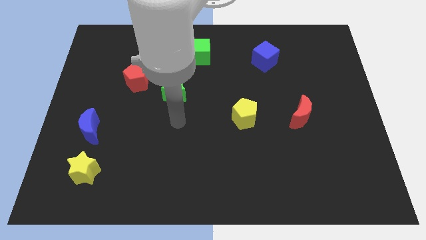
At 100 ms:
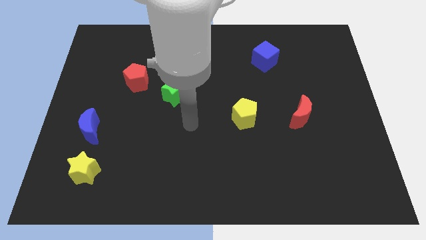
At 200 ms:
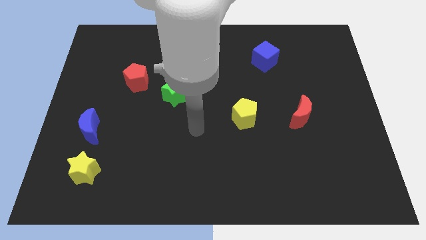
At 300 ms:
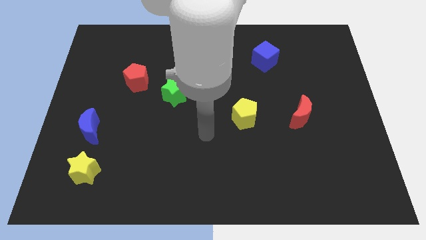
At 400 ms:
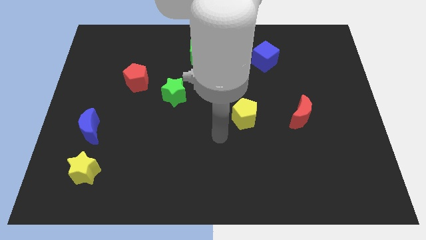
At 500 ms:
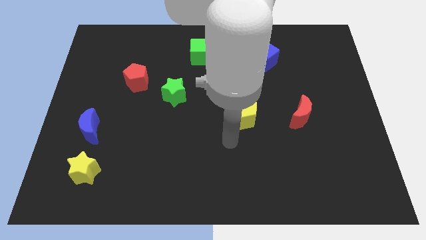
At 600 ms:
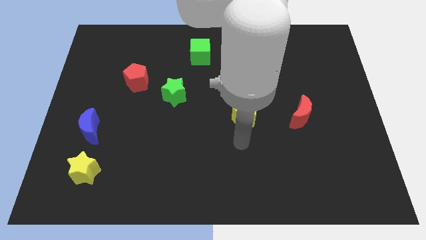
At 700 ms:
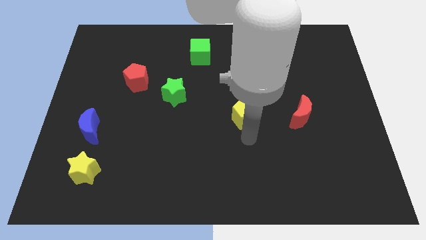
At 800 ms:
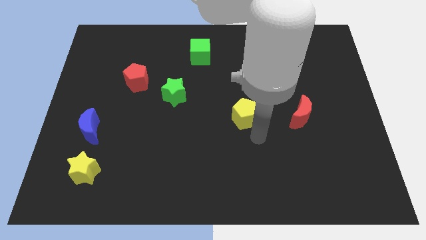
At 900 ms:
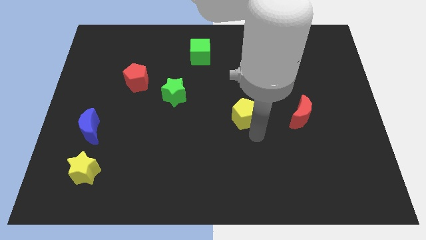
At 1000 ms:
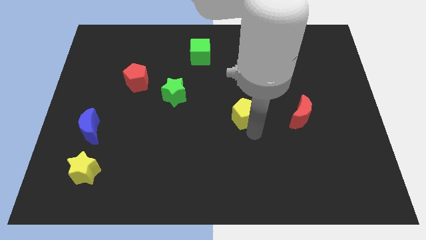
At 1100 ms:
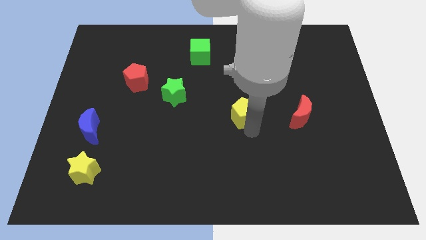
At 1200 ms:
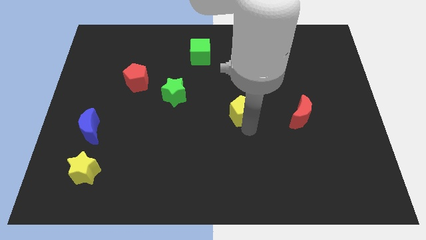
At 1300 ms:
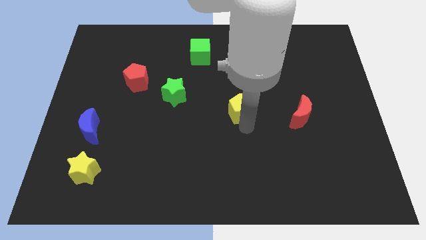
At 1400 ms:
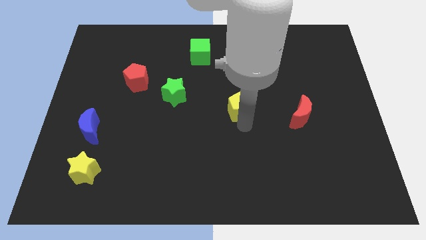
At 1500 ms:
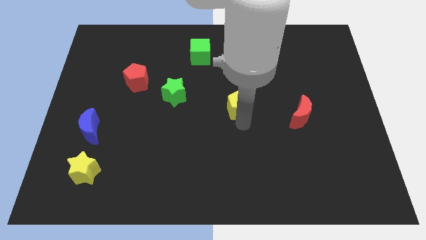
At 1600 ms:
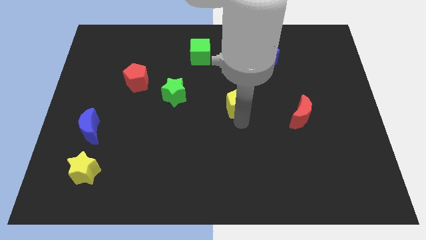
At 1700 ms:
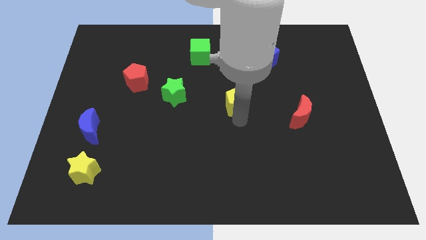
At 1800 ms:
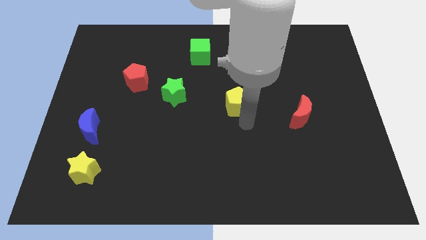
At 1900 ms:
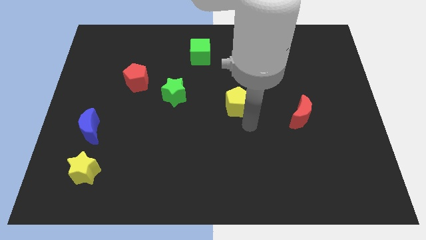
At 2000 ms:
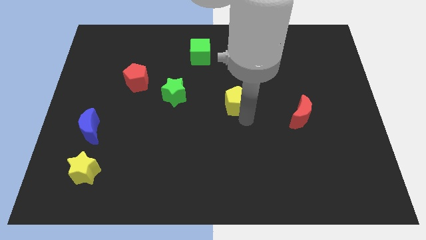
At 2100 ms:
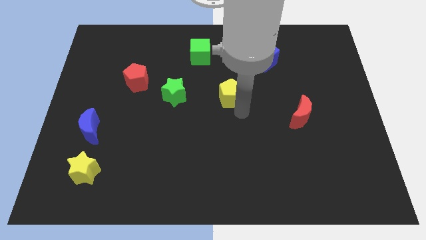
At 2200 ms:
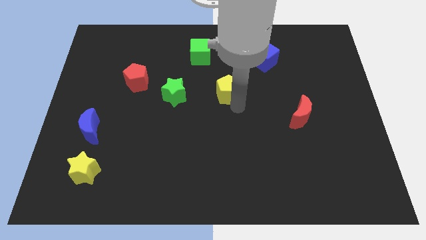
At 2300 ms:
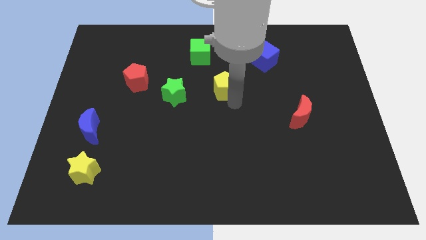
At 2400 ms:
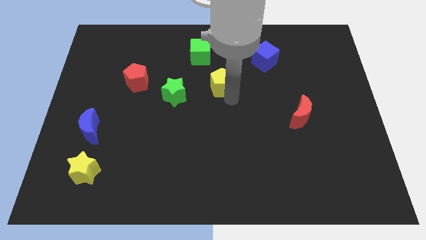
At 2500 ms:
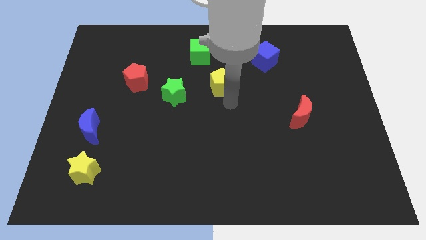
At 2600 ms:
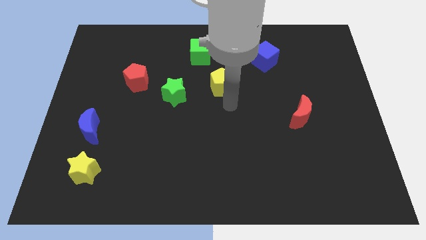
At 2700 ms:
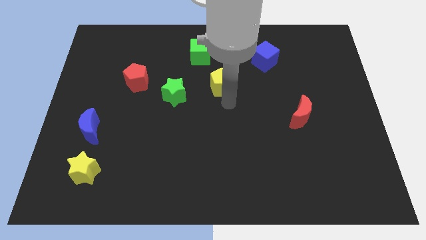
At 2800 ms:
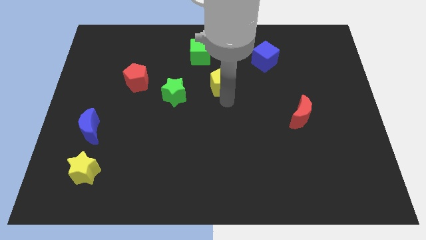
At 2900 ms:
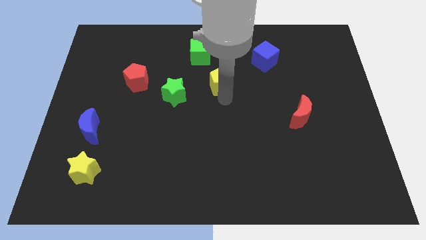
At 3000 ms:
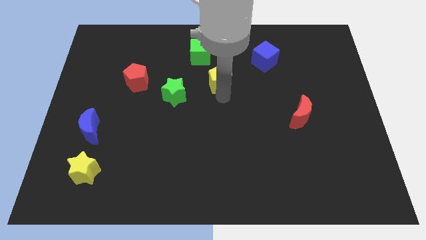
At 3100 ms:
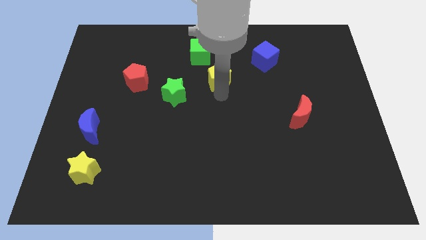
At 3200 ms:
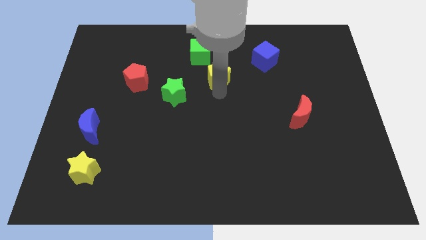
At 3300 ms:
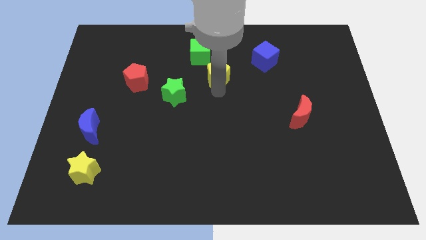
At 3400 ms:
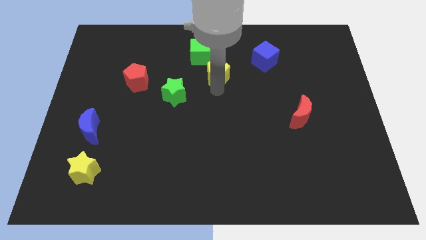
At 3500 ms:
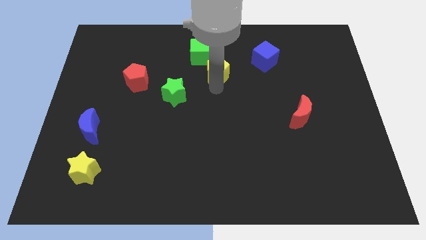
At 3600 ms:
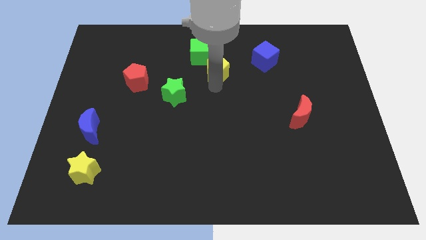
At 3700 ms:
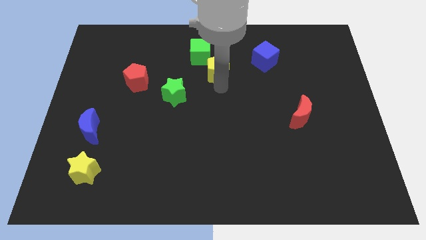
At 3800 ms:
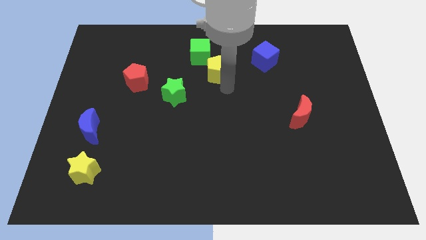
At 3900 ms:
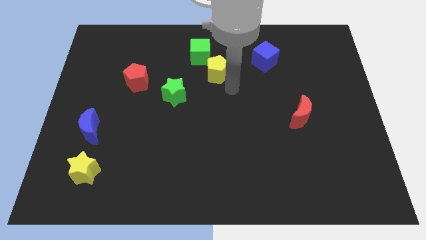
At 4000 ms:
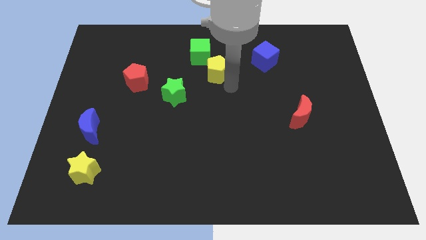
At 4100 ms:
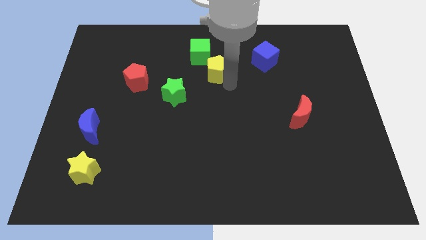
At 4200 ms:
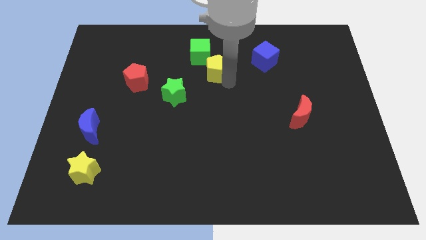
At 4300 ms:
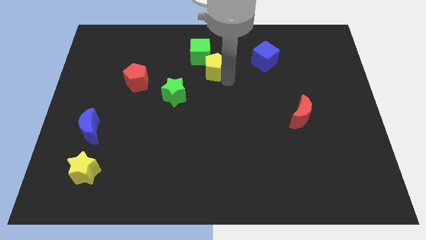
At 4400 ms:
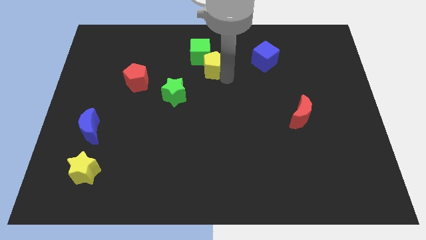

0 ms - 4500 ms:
move the yellow pentagon next to the green cube

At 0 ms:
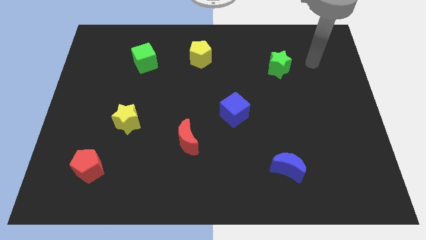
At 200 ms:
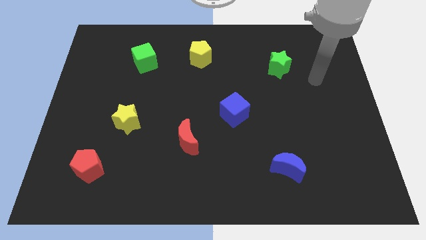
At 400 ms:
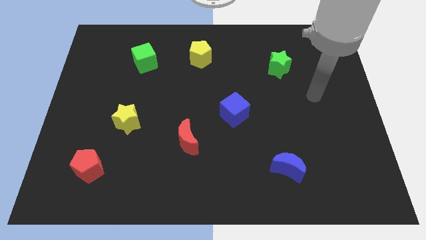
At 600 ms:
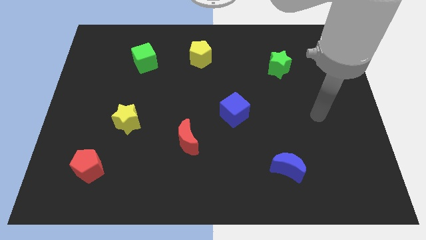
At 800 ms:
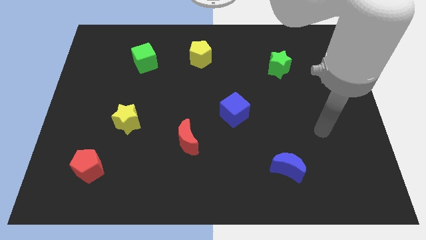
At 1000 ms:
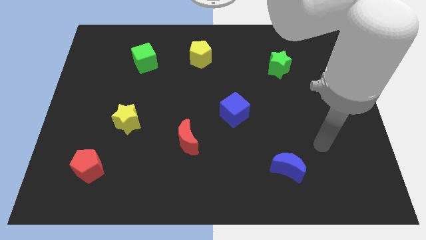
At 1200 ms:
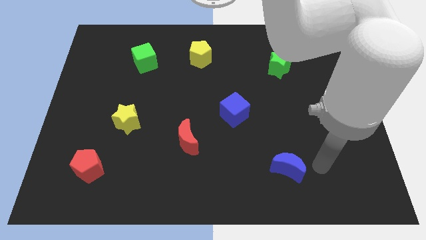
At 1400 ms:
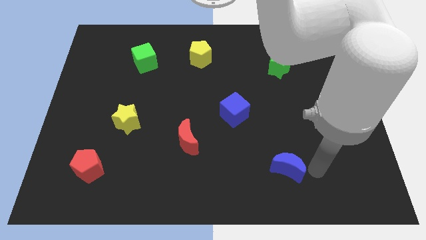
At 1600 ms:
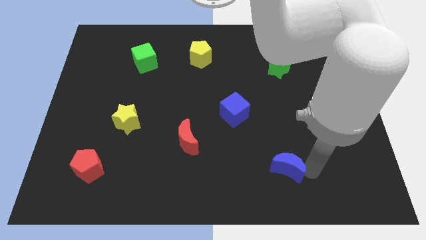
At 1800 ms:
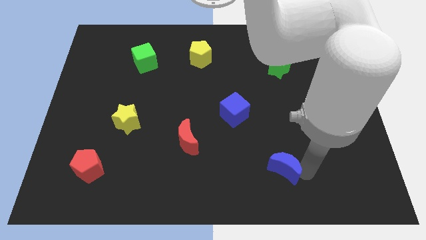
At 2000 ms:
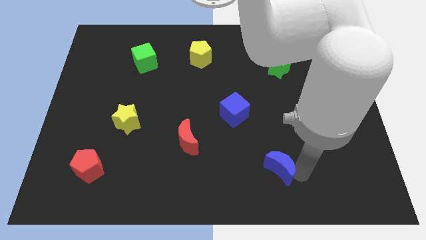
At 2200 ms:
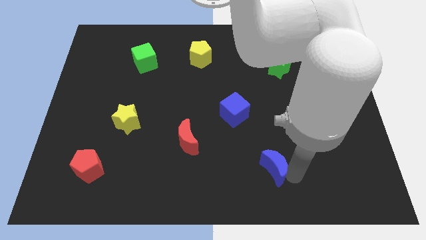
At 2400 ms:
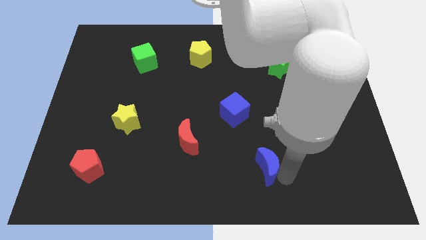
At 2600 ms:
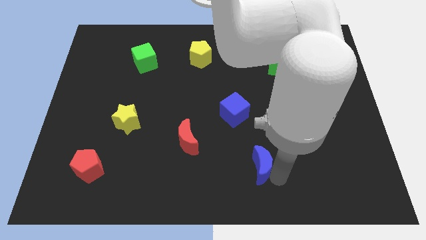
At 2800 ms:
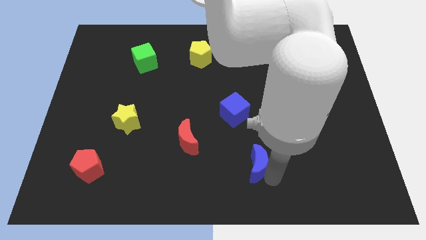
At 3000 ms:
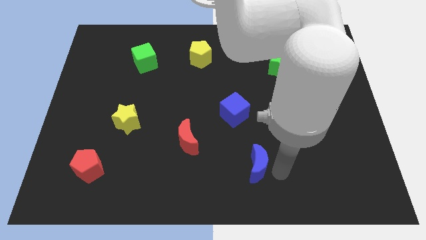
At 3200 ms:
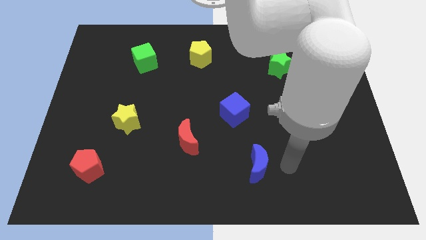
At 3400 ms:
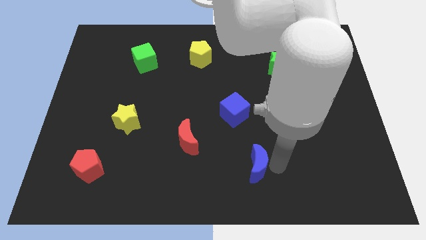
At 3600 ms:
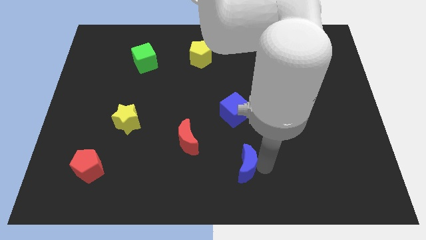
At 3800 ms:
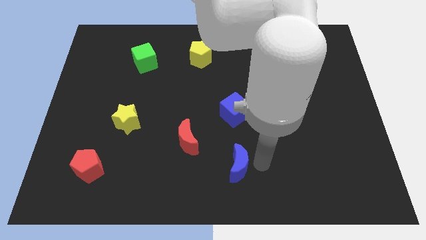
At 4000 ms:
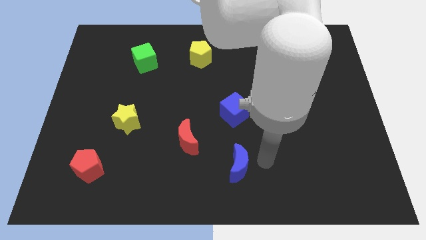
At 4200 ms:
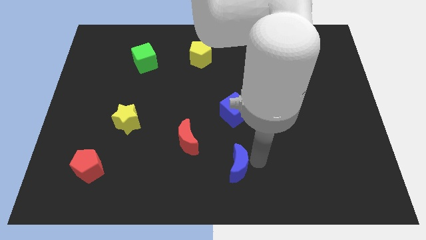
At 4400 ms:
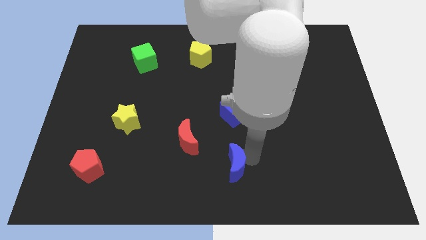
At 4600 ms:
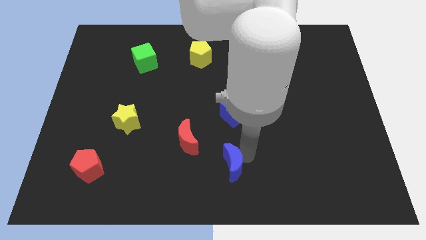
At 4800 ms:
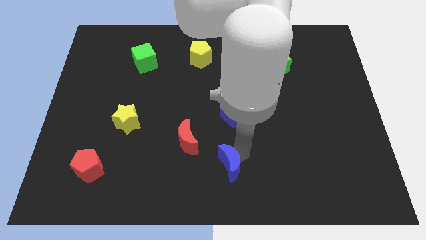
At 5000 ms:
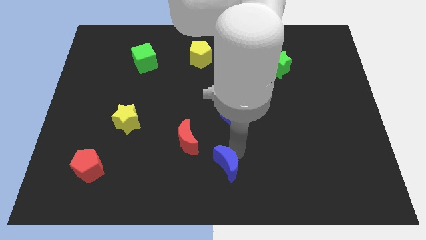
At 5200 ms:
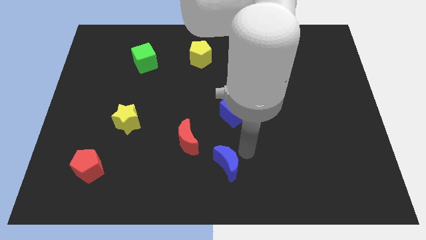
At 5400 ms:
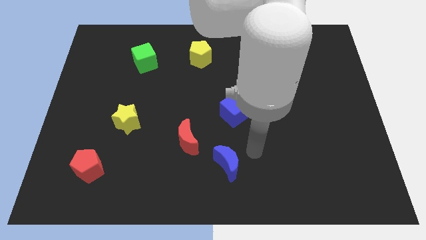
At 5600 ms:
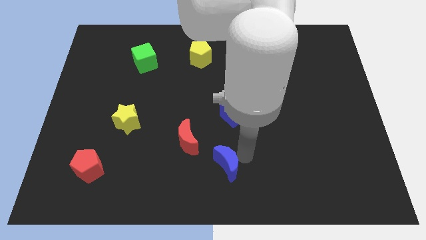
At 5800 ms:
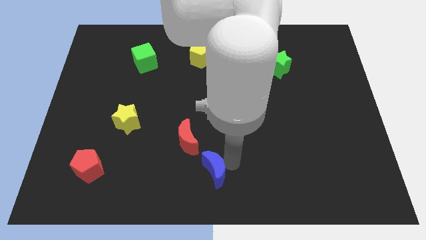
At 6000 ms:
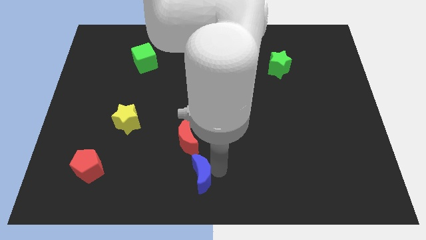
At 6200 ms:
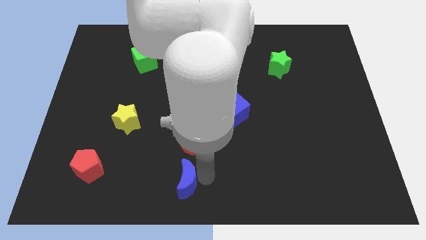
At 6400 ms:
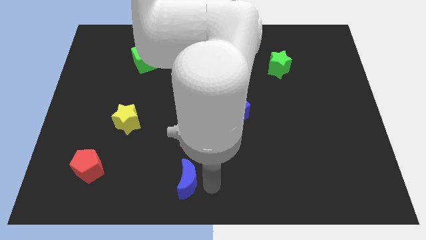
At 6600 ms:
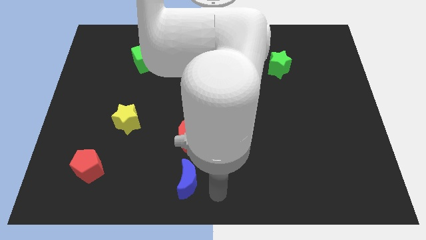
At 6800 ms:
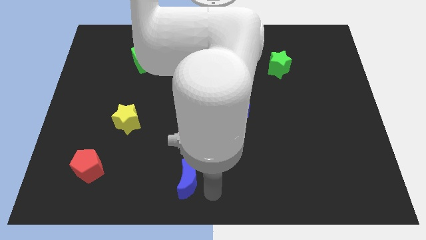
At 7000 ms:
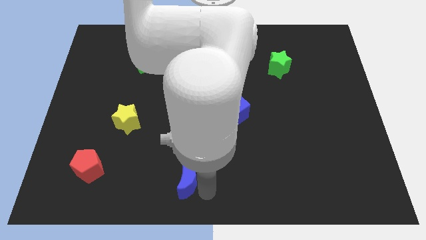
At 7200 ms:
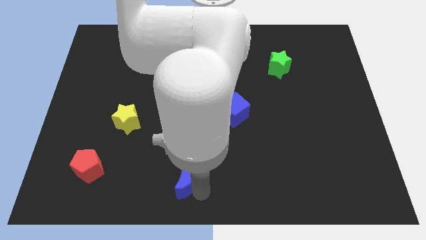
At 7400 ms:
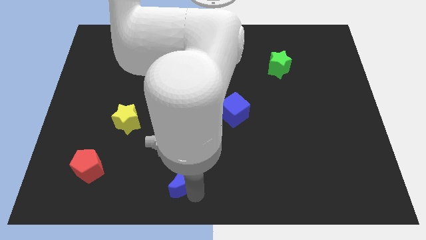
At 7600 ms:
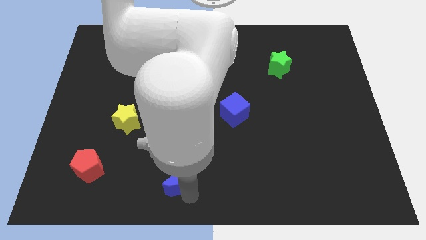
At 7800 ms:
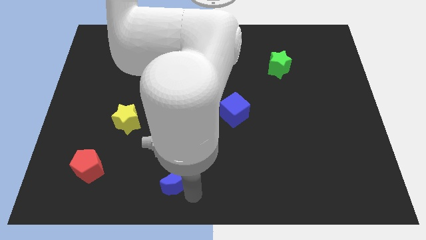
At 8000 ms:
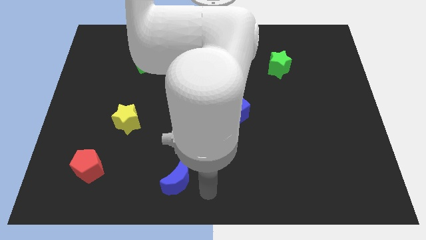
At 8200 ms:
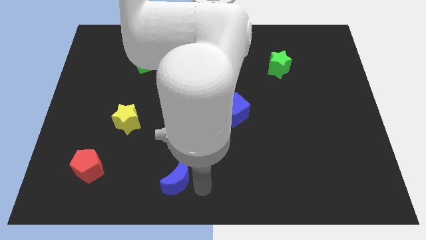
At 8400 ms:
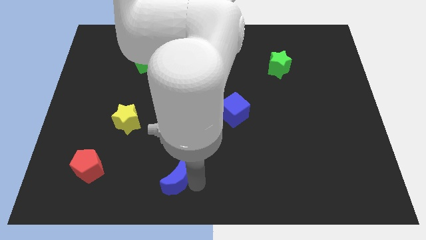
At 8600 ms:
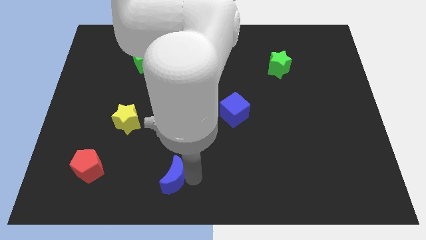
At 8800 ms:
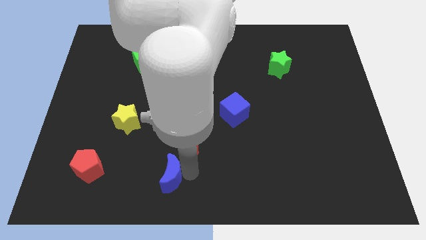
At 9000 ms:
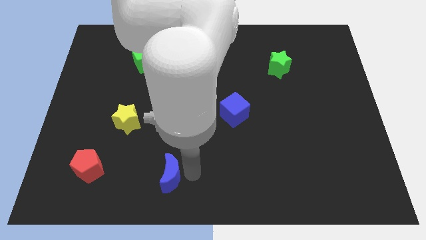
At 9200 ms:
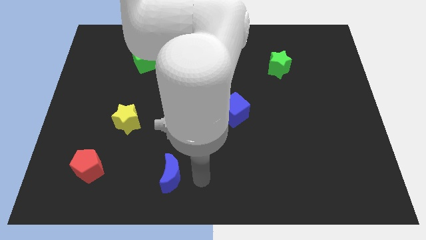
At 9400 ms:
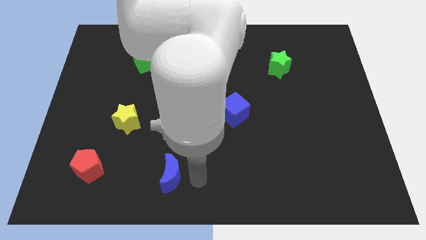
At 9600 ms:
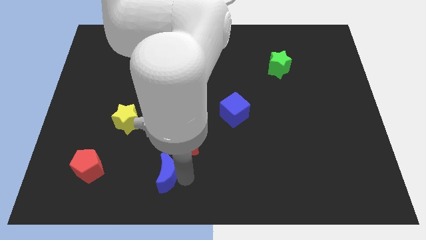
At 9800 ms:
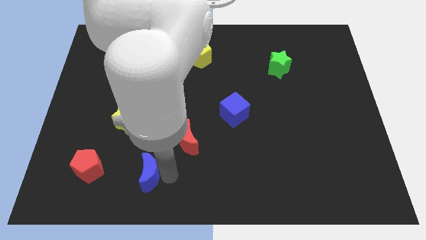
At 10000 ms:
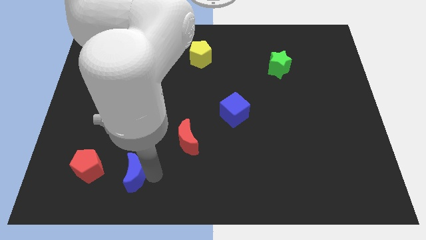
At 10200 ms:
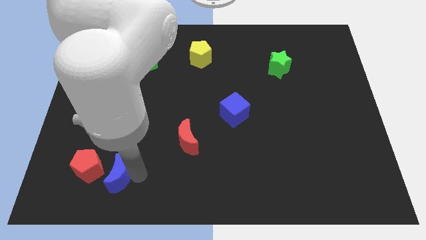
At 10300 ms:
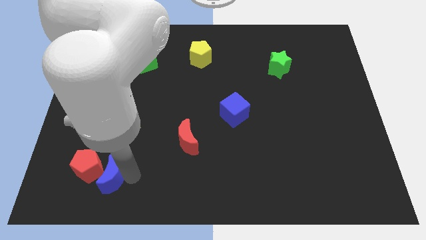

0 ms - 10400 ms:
move the blue moon next to the red pentagon
